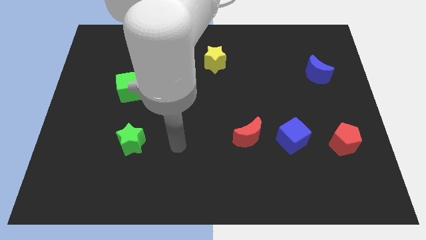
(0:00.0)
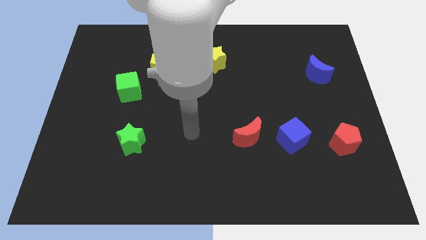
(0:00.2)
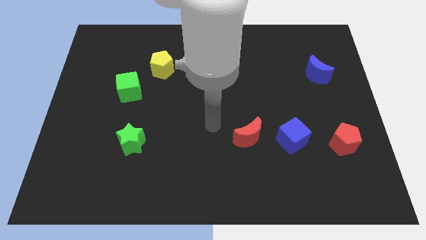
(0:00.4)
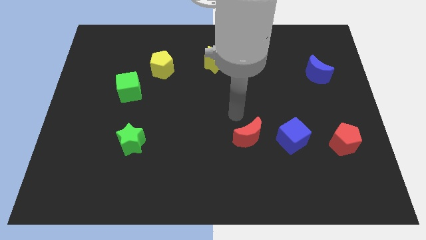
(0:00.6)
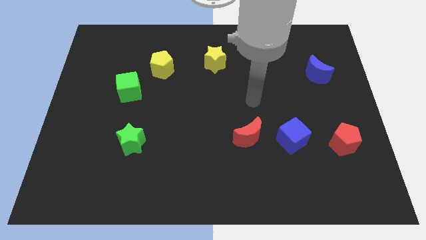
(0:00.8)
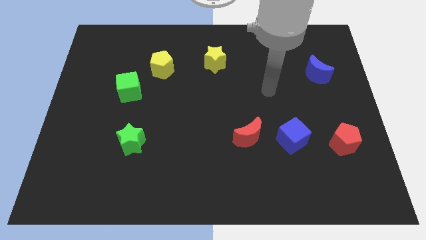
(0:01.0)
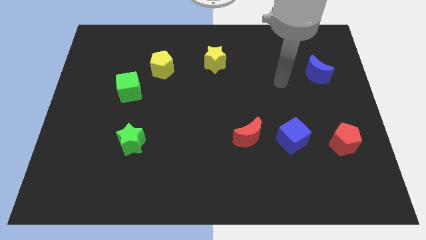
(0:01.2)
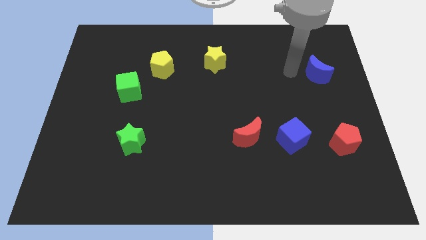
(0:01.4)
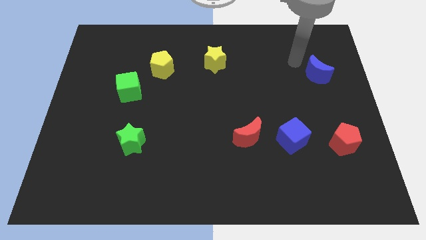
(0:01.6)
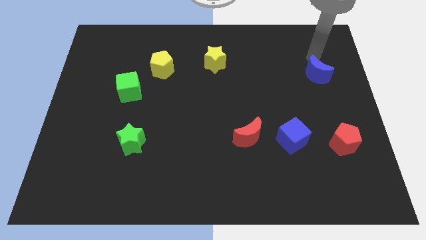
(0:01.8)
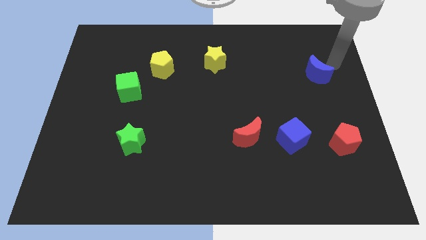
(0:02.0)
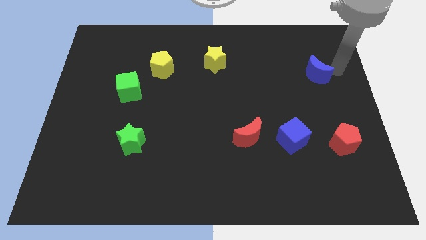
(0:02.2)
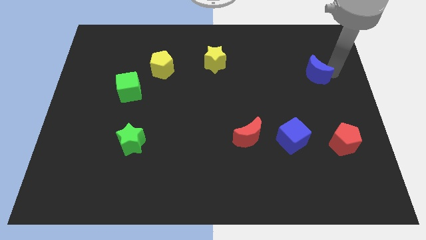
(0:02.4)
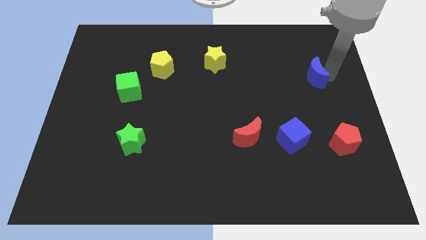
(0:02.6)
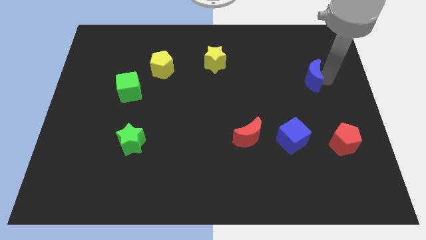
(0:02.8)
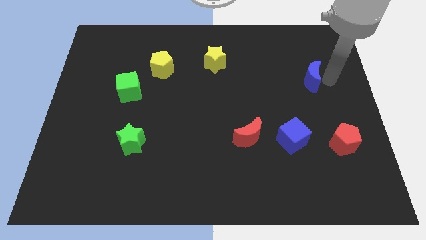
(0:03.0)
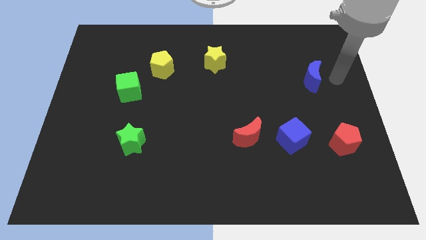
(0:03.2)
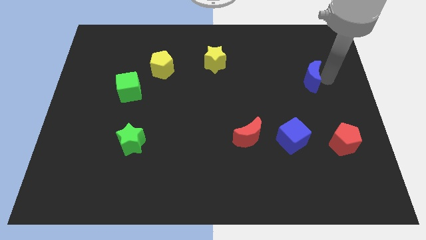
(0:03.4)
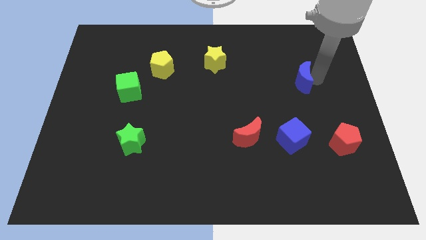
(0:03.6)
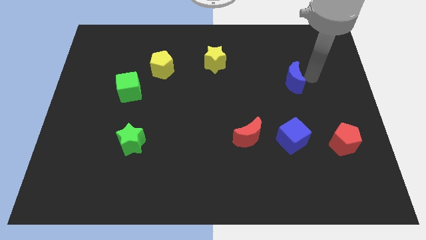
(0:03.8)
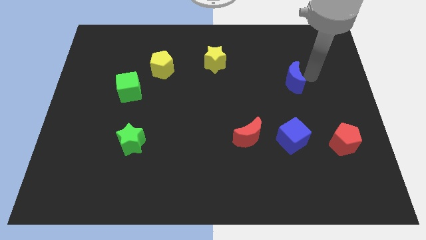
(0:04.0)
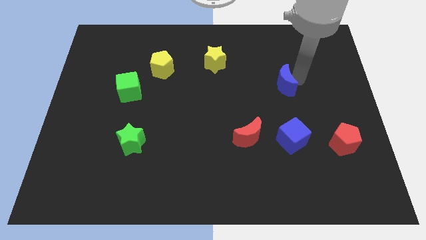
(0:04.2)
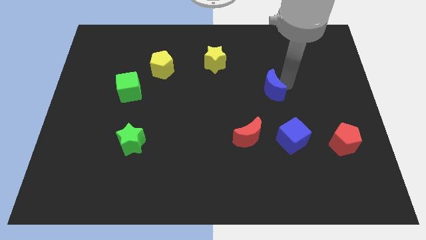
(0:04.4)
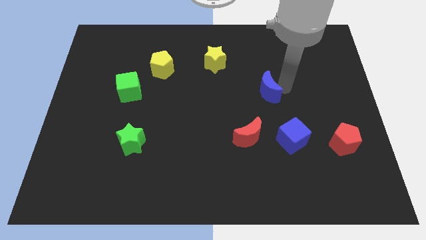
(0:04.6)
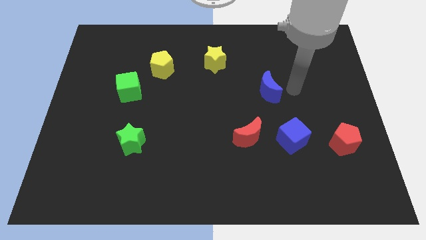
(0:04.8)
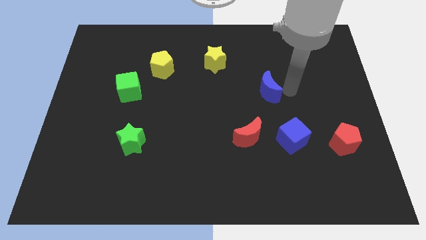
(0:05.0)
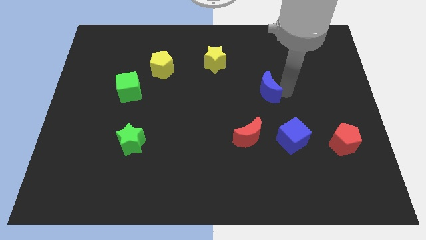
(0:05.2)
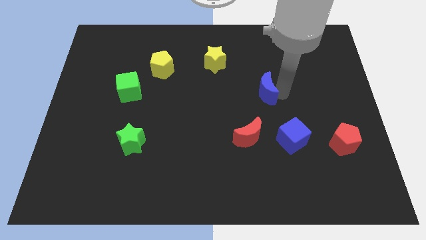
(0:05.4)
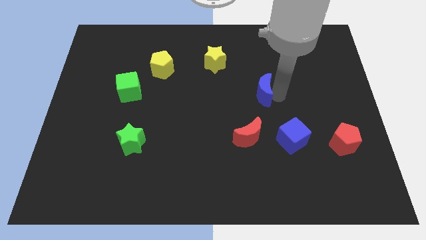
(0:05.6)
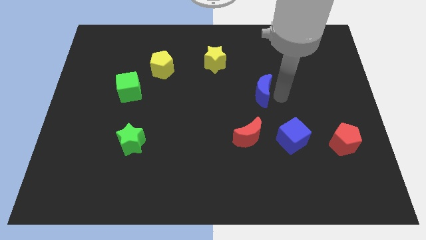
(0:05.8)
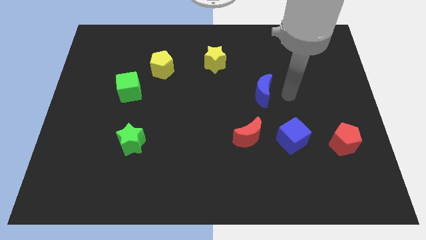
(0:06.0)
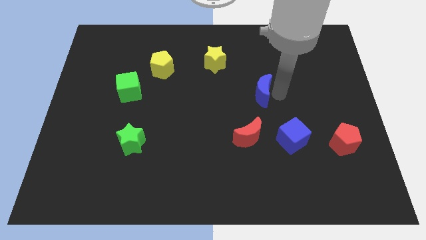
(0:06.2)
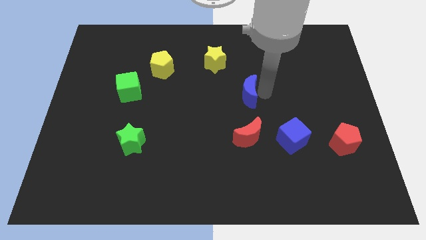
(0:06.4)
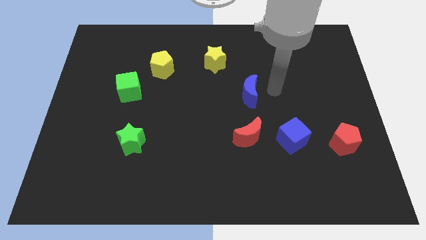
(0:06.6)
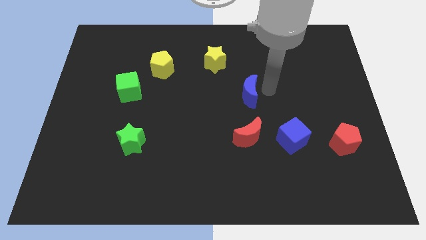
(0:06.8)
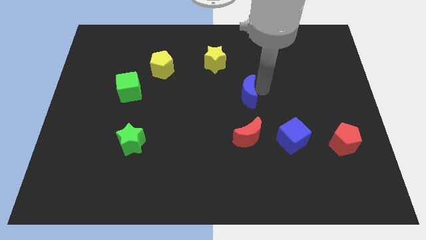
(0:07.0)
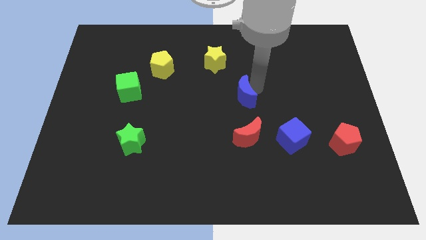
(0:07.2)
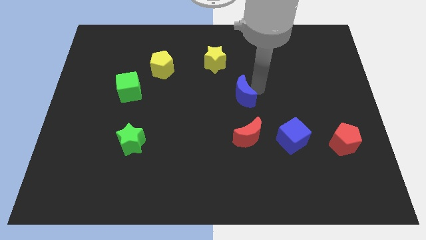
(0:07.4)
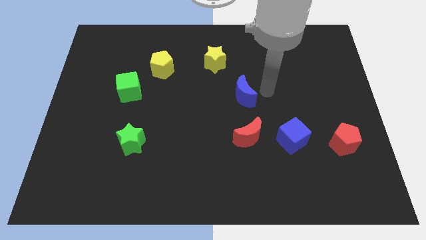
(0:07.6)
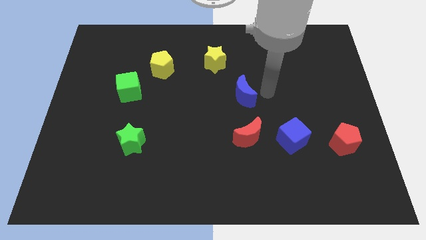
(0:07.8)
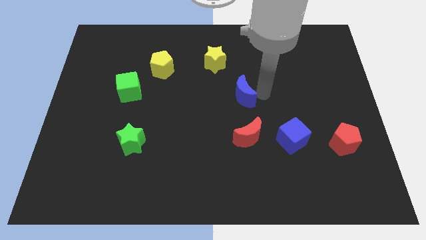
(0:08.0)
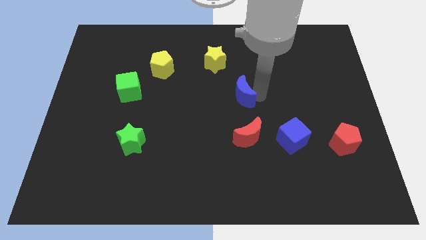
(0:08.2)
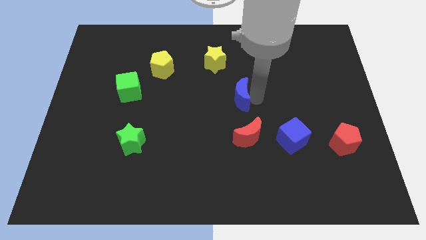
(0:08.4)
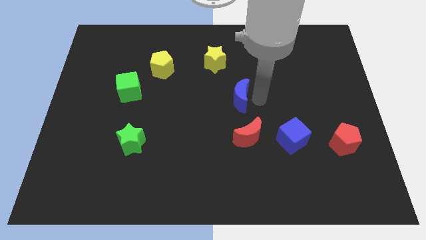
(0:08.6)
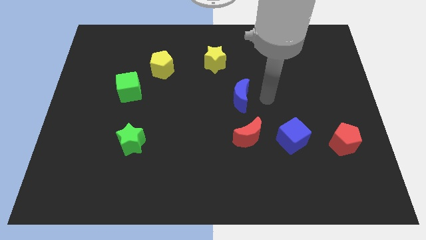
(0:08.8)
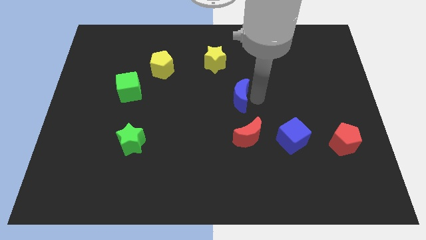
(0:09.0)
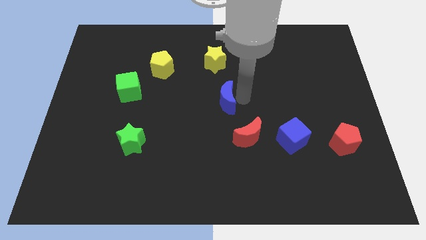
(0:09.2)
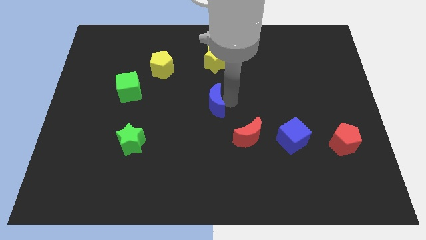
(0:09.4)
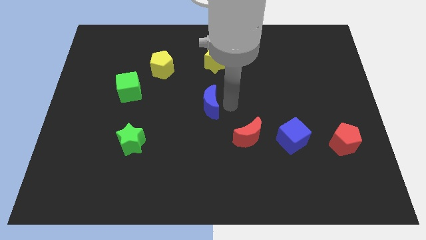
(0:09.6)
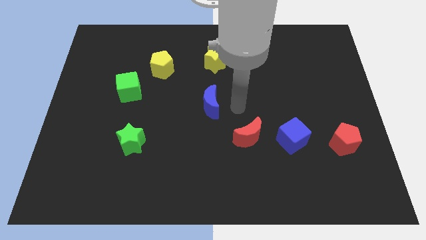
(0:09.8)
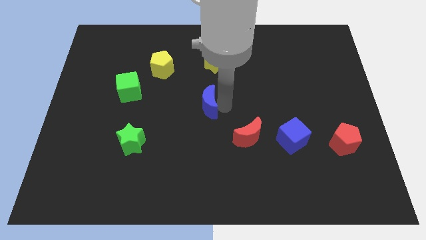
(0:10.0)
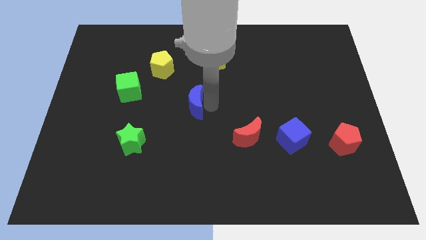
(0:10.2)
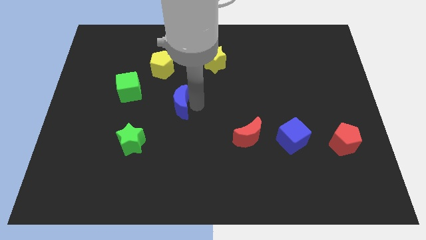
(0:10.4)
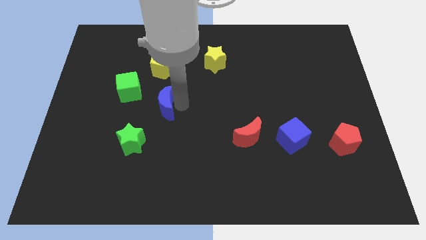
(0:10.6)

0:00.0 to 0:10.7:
push the blue moon to the bottom right side of the green cube

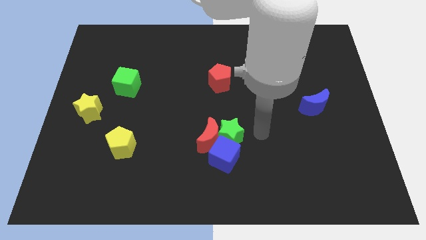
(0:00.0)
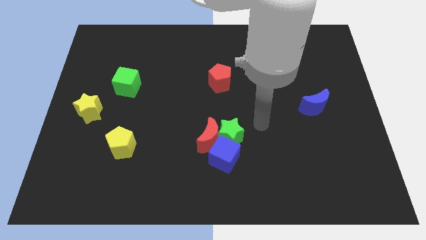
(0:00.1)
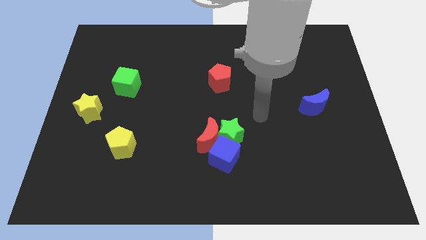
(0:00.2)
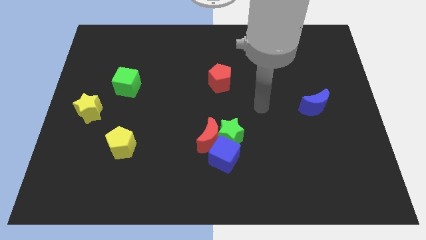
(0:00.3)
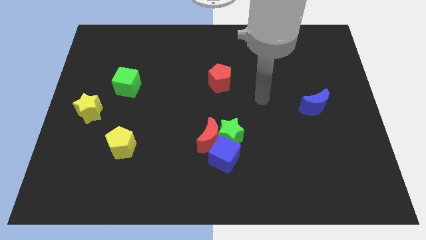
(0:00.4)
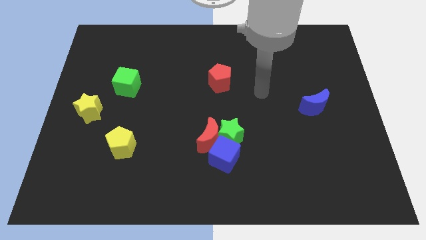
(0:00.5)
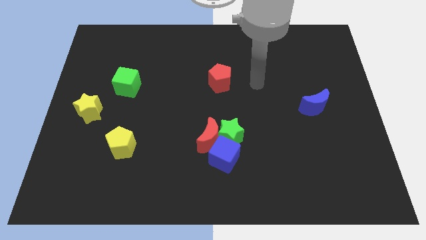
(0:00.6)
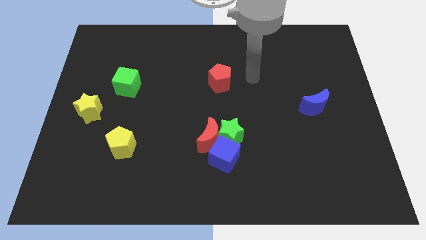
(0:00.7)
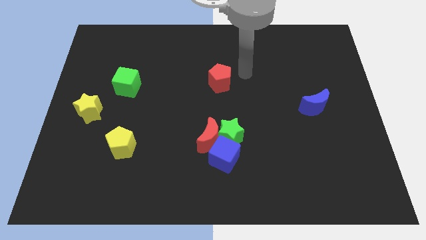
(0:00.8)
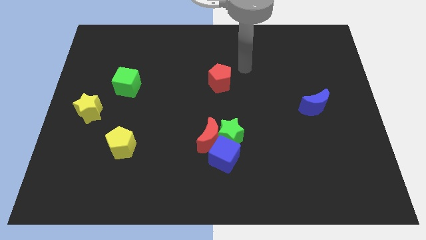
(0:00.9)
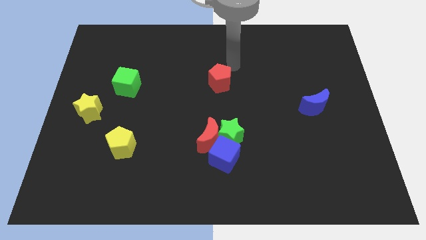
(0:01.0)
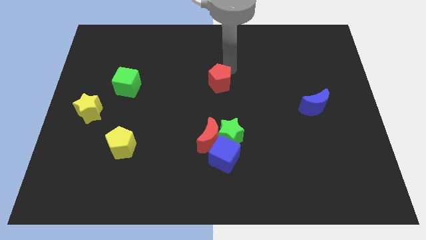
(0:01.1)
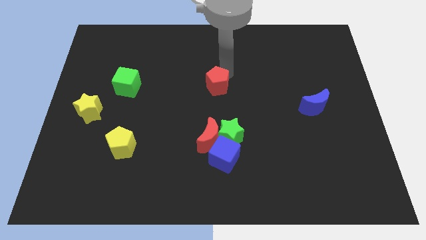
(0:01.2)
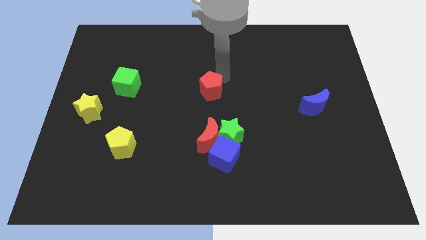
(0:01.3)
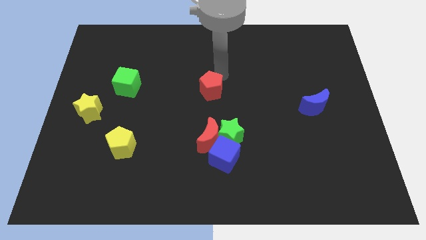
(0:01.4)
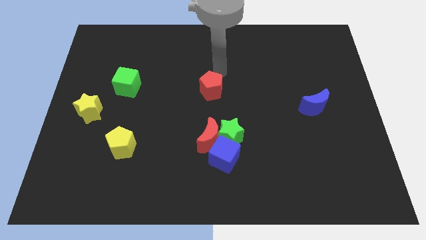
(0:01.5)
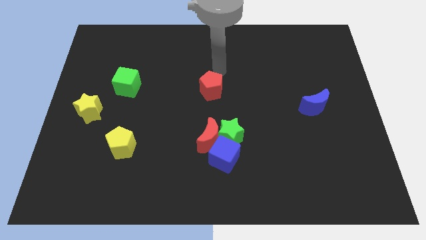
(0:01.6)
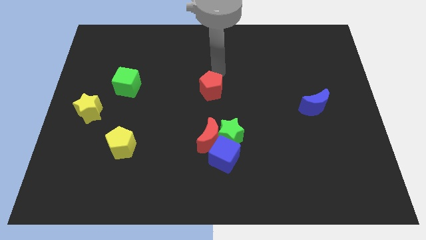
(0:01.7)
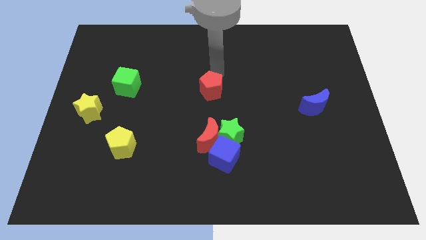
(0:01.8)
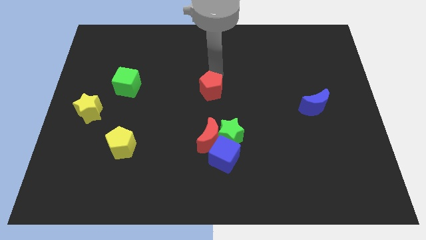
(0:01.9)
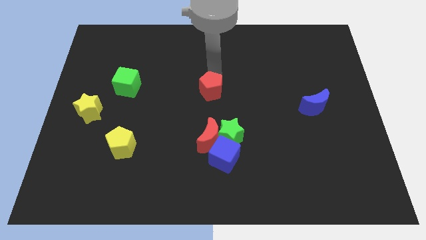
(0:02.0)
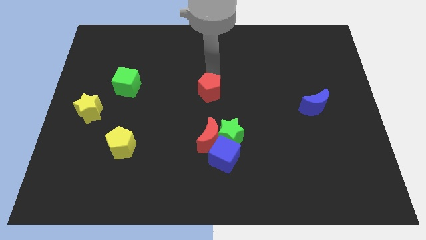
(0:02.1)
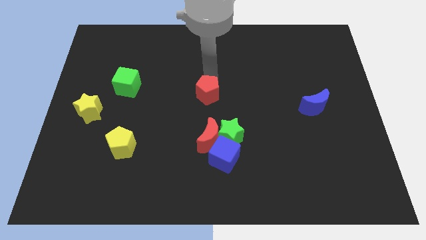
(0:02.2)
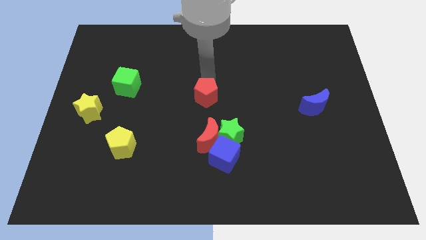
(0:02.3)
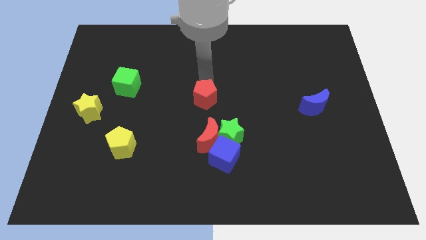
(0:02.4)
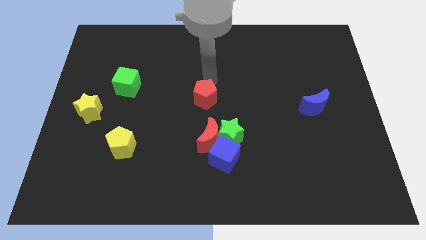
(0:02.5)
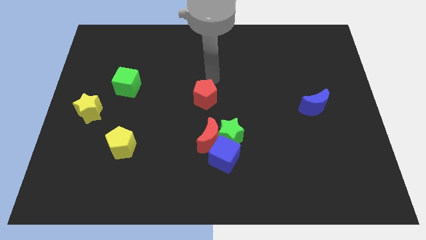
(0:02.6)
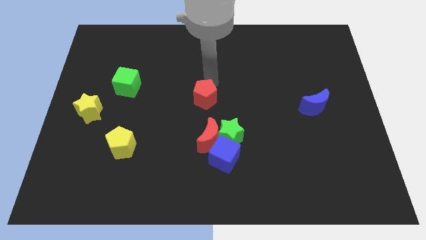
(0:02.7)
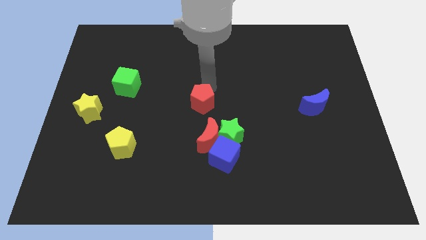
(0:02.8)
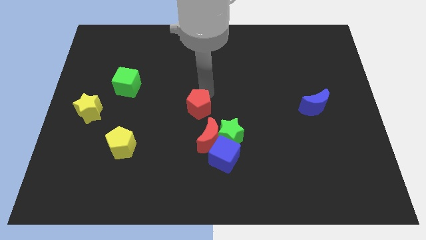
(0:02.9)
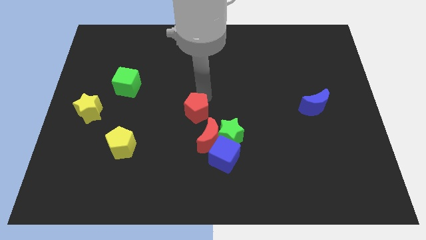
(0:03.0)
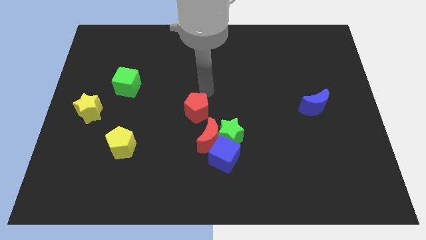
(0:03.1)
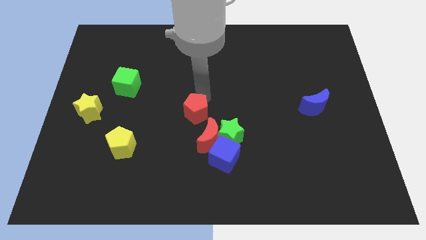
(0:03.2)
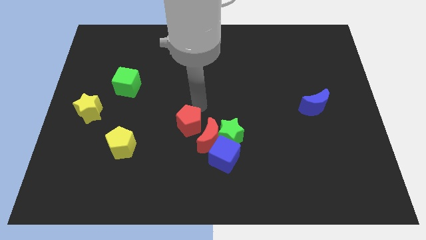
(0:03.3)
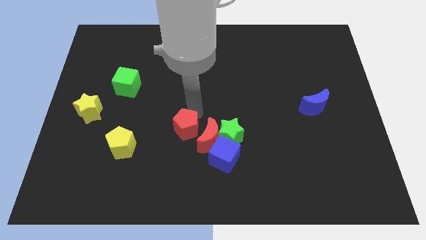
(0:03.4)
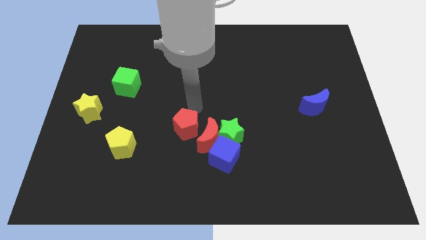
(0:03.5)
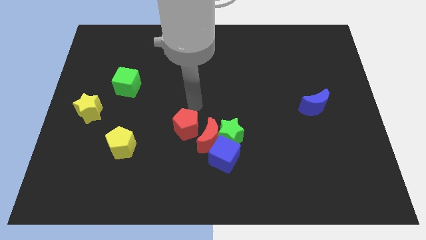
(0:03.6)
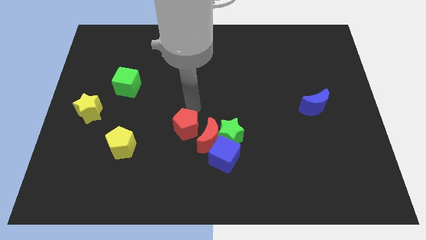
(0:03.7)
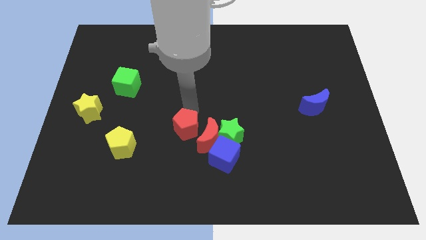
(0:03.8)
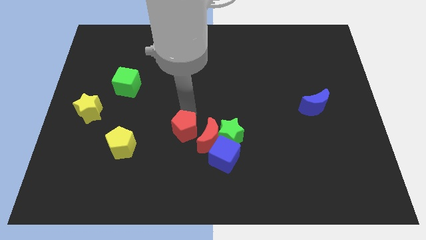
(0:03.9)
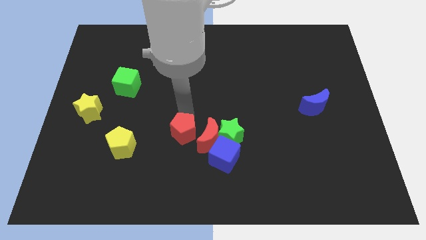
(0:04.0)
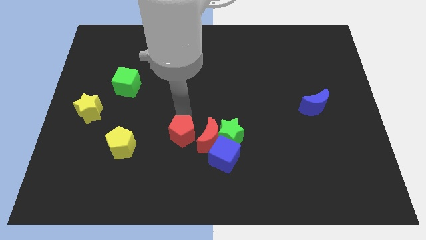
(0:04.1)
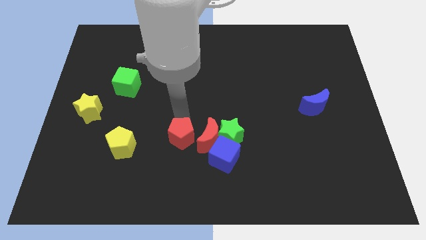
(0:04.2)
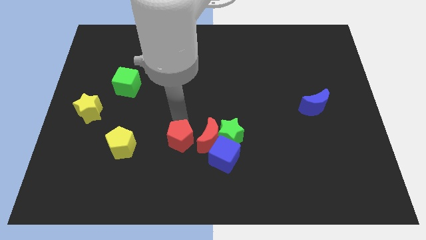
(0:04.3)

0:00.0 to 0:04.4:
slide the red pentagon just left of the blue cube
